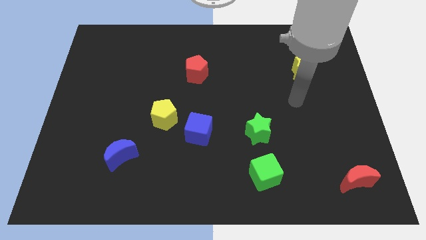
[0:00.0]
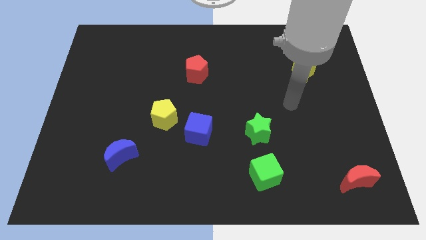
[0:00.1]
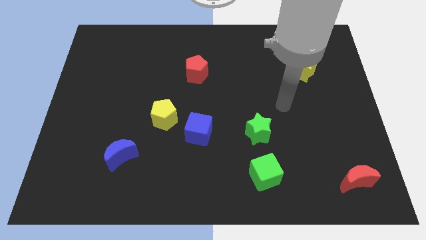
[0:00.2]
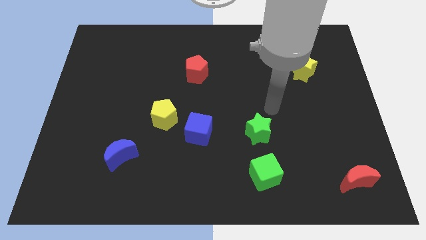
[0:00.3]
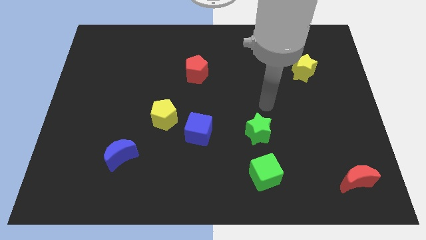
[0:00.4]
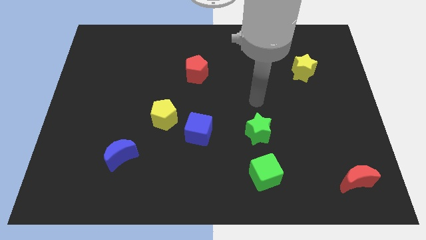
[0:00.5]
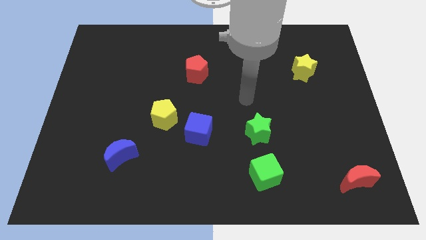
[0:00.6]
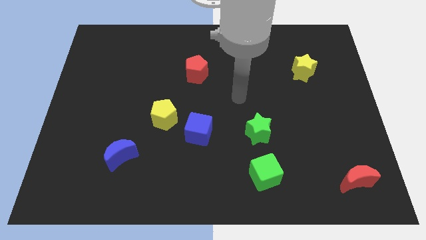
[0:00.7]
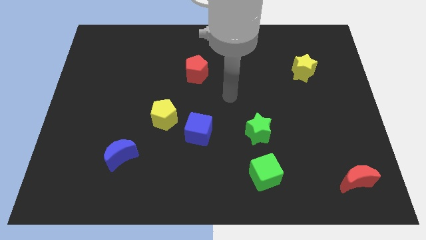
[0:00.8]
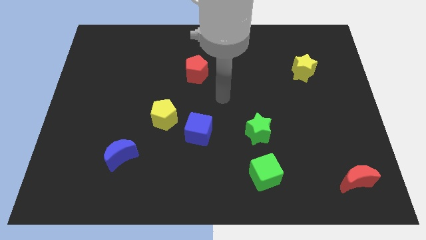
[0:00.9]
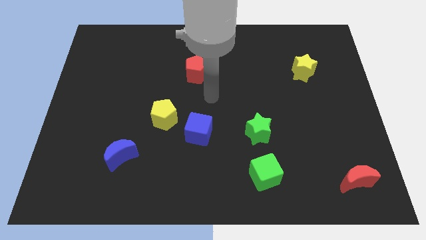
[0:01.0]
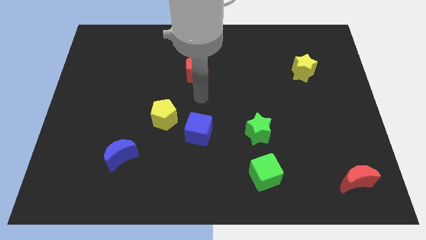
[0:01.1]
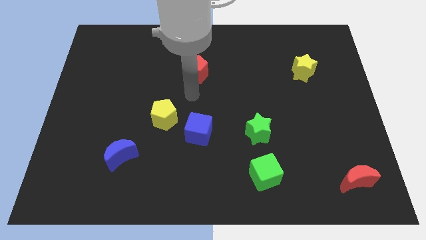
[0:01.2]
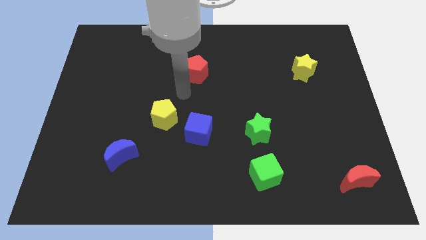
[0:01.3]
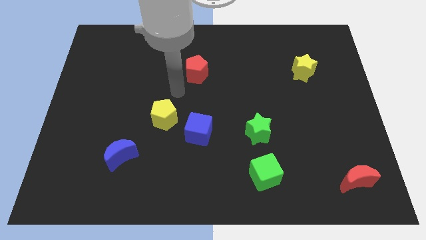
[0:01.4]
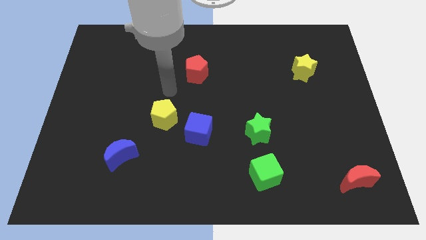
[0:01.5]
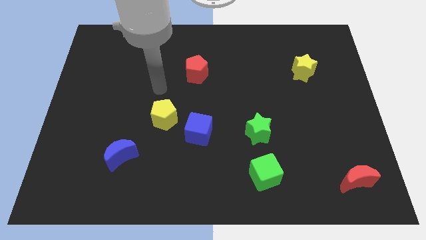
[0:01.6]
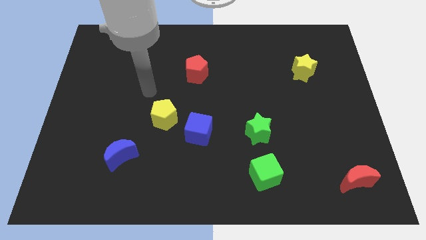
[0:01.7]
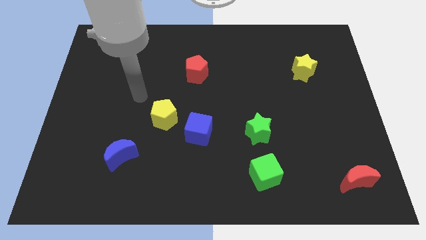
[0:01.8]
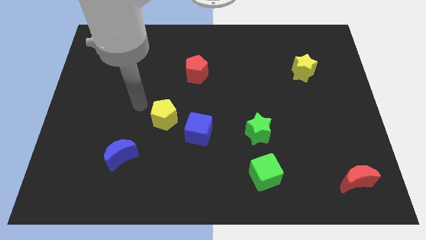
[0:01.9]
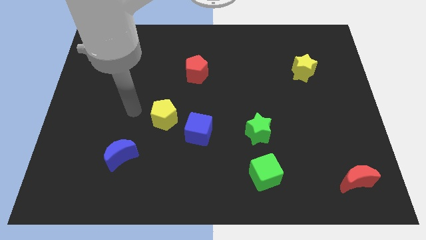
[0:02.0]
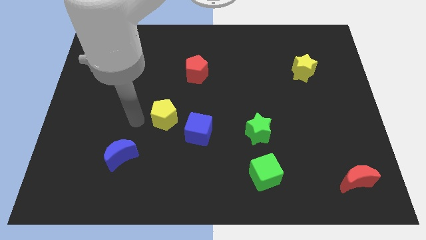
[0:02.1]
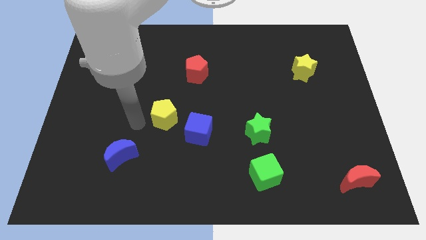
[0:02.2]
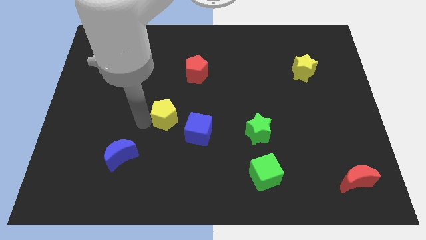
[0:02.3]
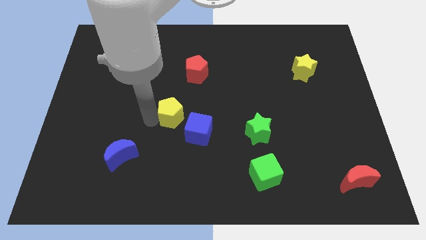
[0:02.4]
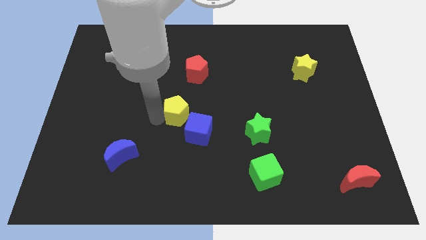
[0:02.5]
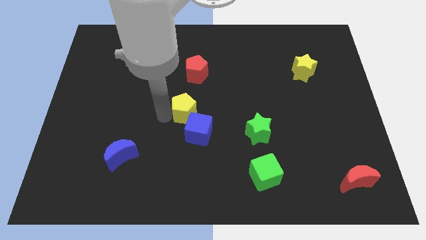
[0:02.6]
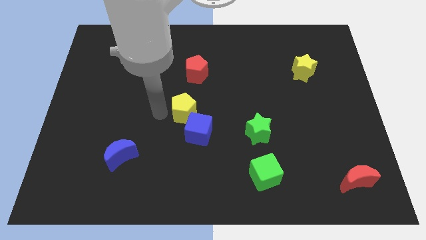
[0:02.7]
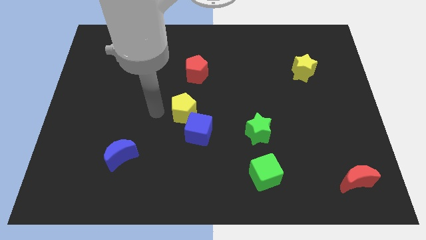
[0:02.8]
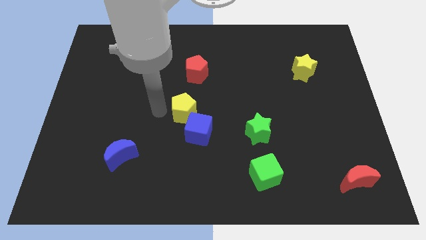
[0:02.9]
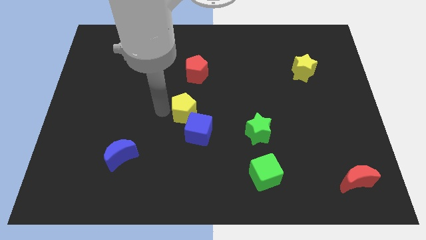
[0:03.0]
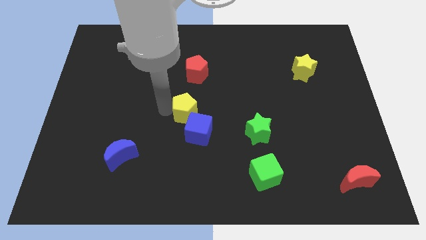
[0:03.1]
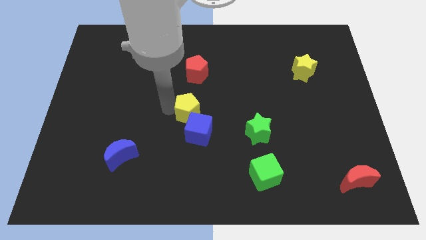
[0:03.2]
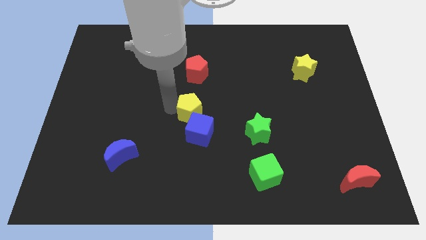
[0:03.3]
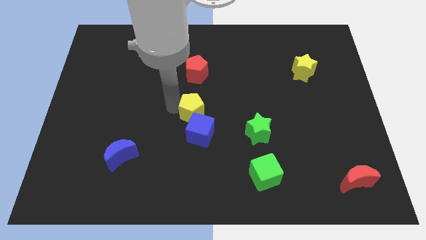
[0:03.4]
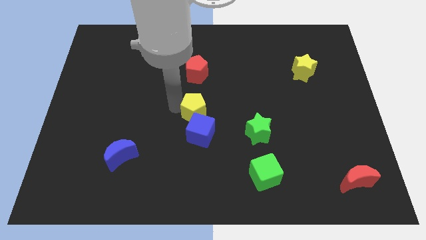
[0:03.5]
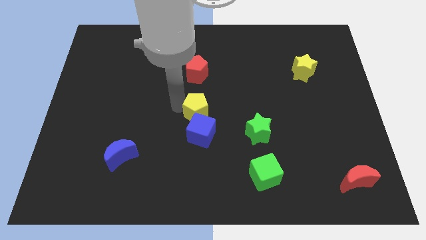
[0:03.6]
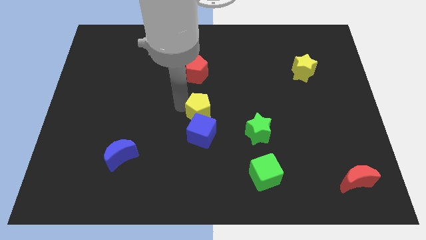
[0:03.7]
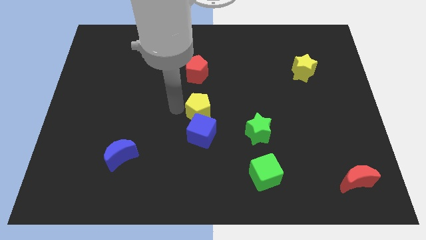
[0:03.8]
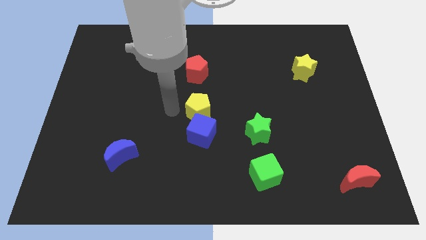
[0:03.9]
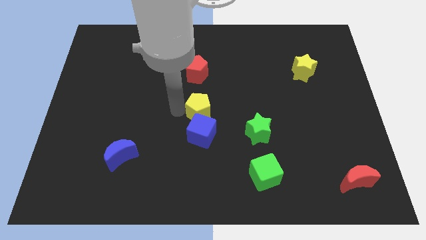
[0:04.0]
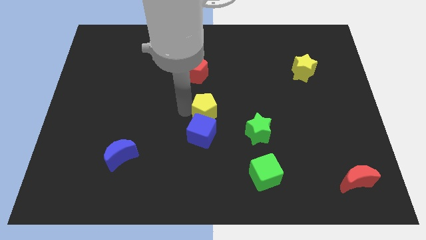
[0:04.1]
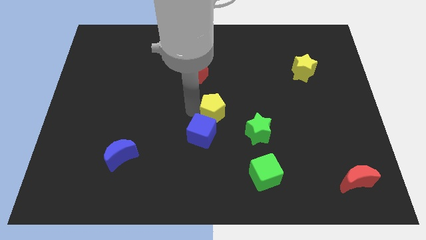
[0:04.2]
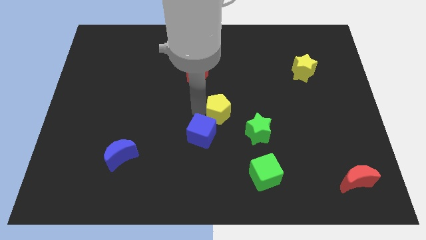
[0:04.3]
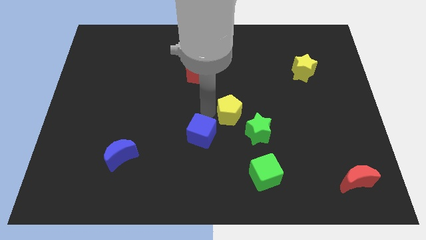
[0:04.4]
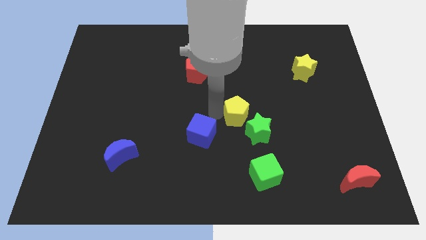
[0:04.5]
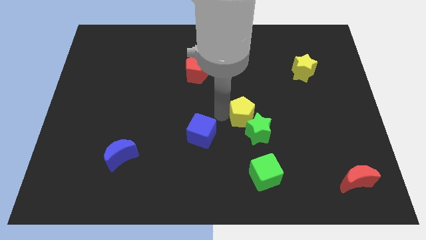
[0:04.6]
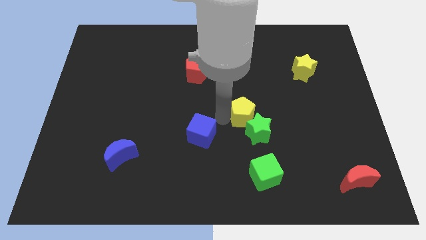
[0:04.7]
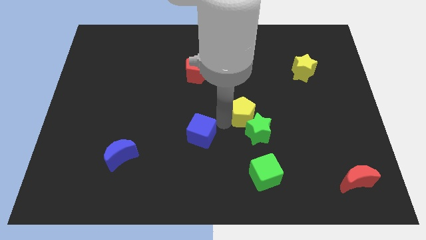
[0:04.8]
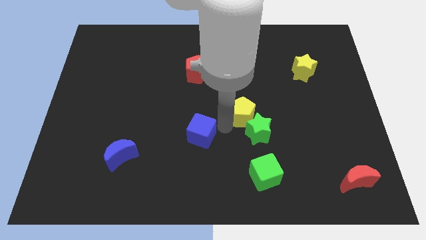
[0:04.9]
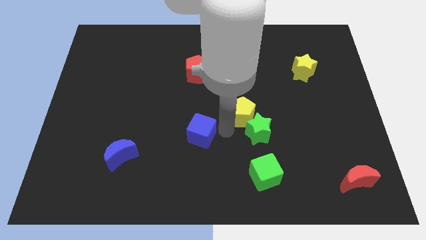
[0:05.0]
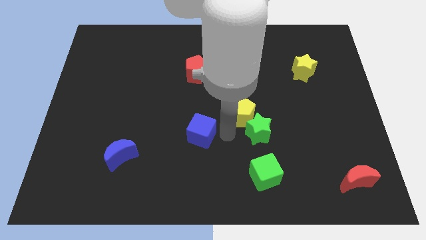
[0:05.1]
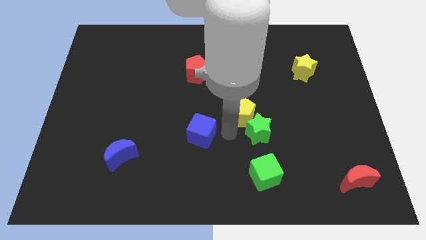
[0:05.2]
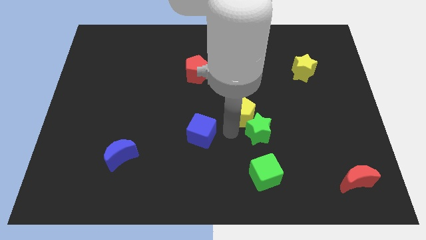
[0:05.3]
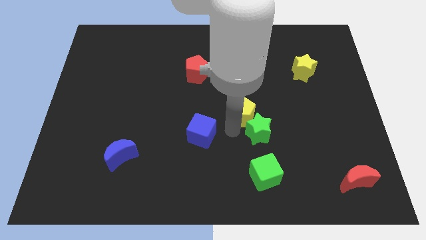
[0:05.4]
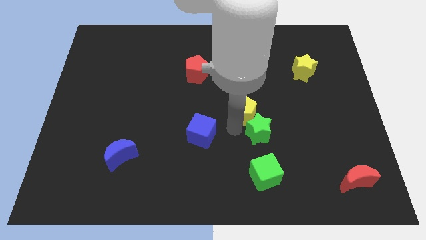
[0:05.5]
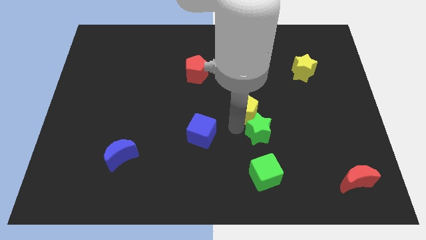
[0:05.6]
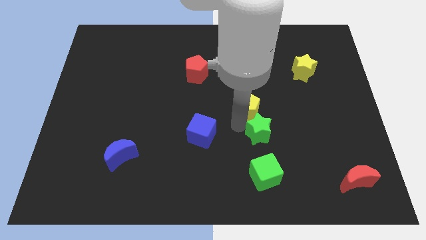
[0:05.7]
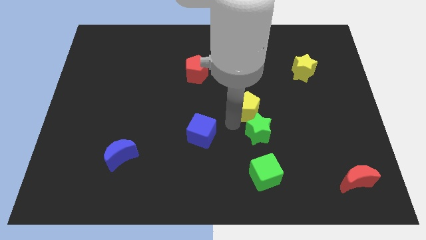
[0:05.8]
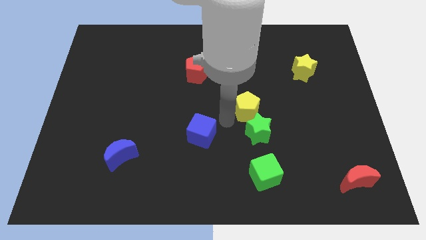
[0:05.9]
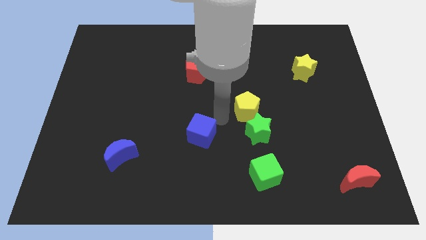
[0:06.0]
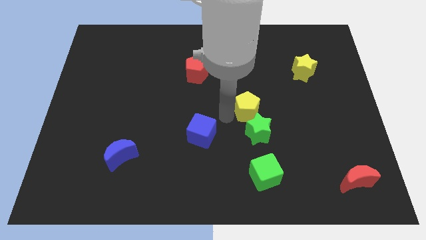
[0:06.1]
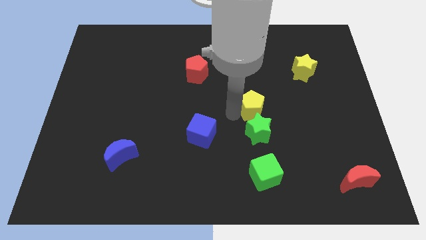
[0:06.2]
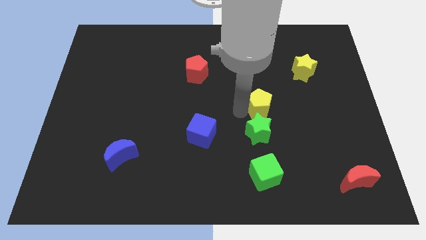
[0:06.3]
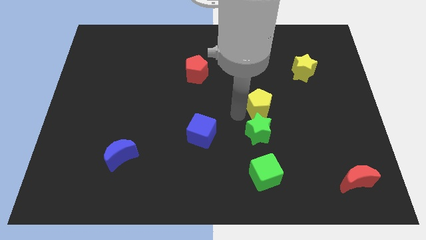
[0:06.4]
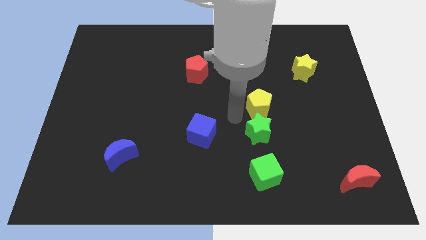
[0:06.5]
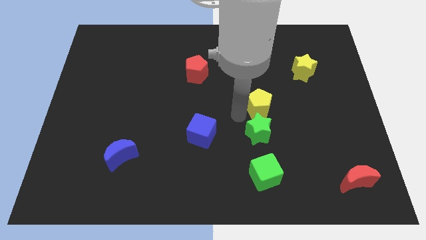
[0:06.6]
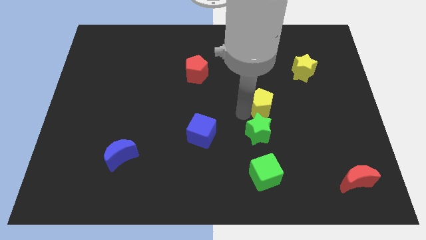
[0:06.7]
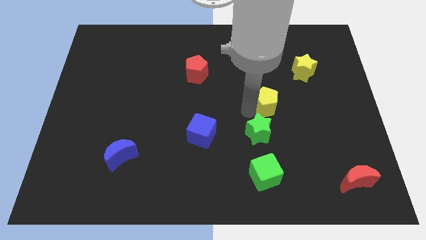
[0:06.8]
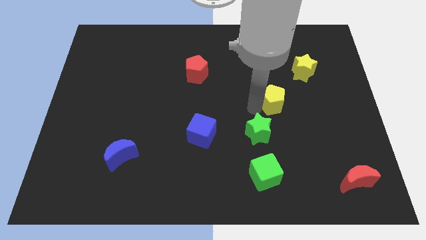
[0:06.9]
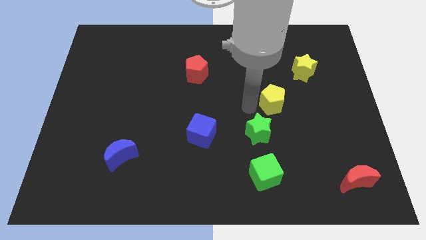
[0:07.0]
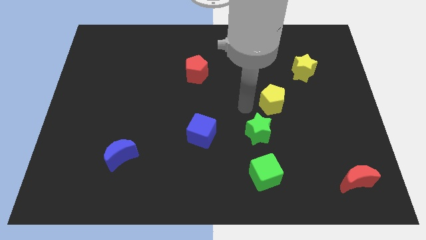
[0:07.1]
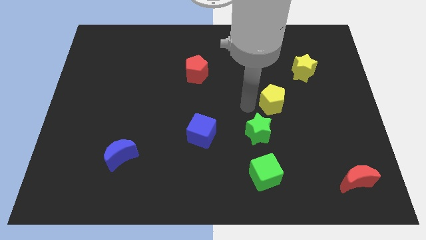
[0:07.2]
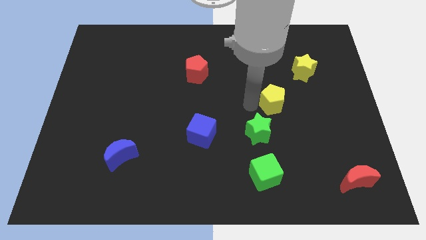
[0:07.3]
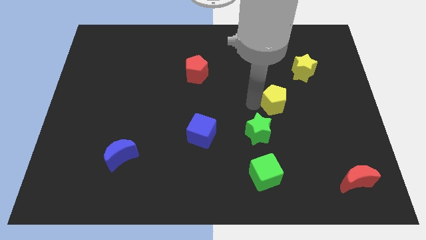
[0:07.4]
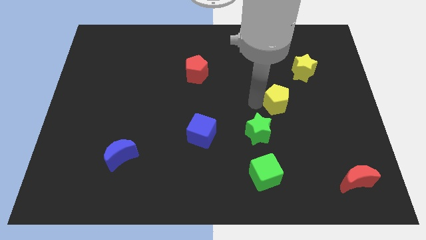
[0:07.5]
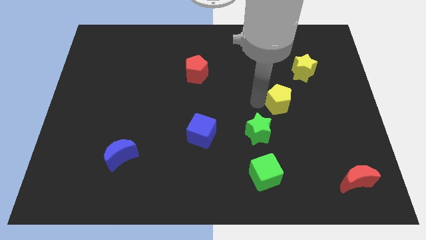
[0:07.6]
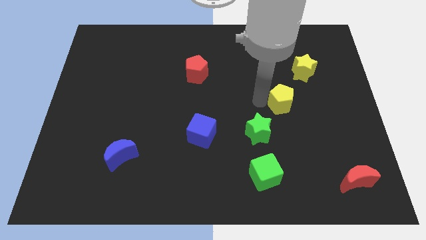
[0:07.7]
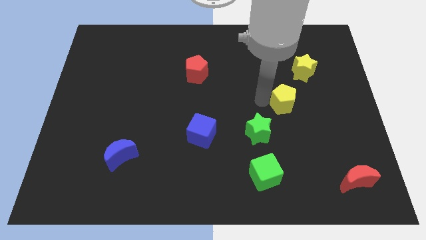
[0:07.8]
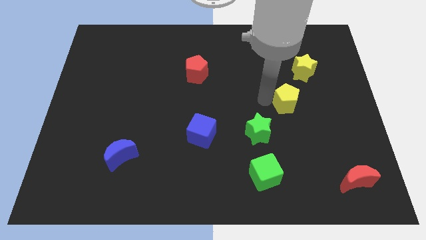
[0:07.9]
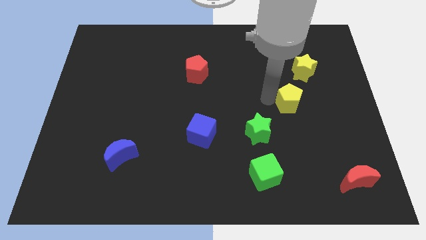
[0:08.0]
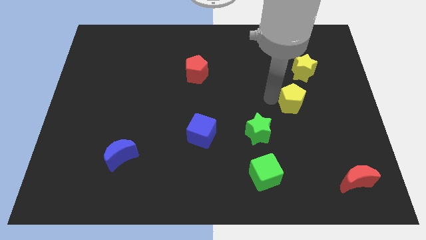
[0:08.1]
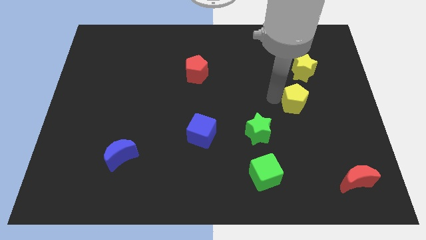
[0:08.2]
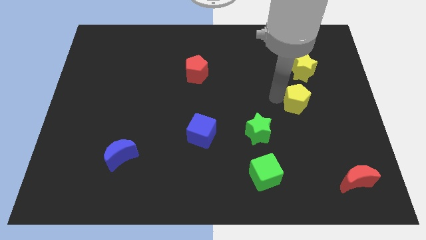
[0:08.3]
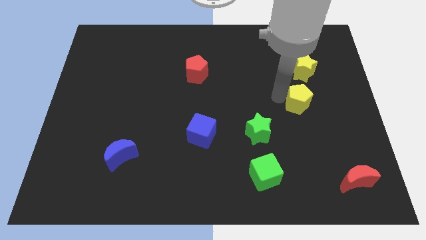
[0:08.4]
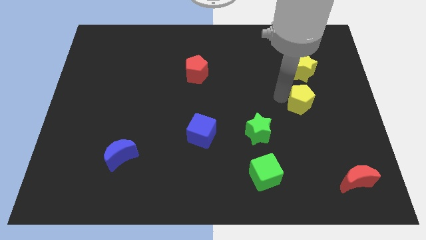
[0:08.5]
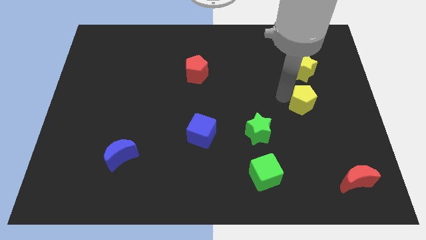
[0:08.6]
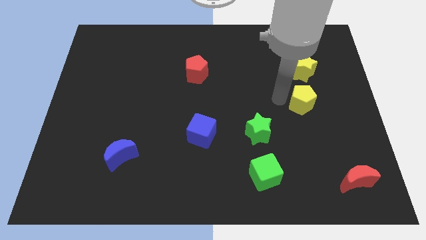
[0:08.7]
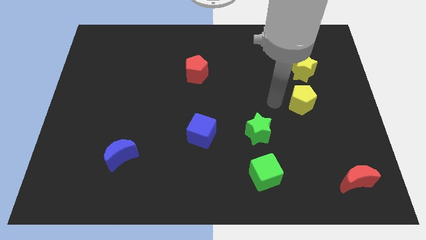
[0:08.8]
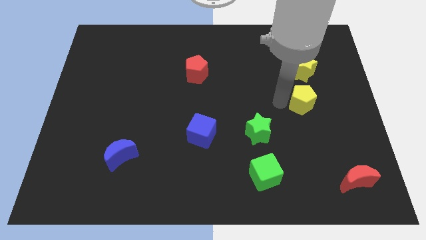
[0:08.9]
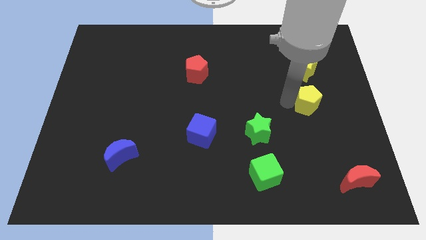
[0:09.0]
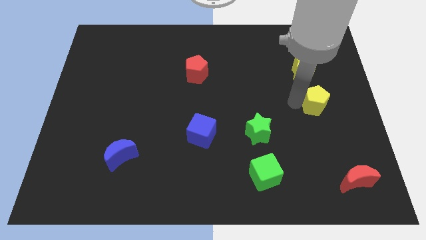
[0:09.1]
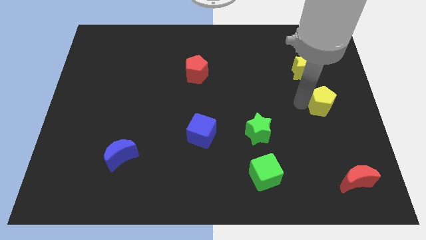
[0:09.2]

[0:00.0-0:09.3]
move the yellow pentagon to the right side of the board
